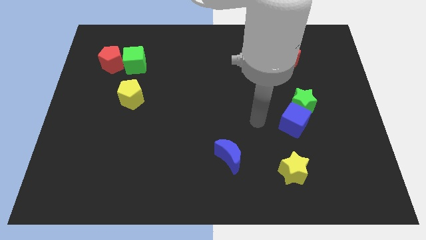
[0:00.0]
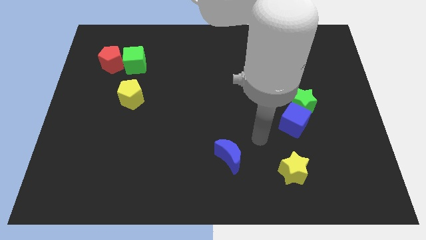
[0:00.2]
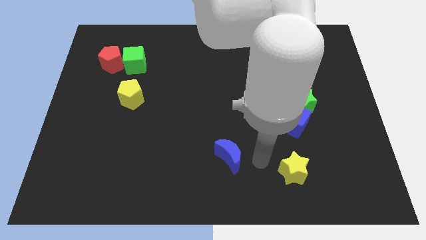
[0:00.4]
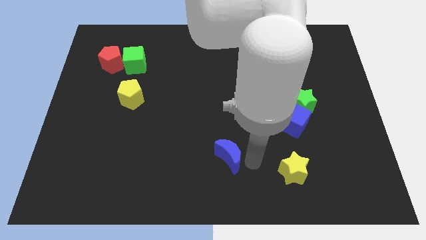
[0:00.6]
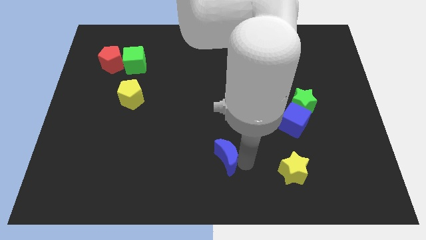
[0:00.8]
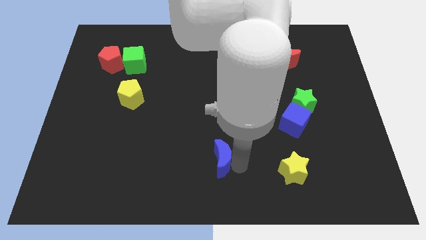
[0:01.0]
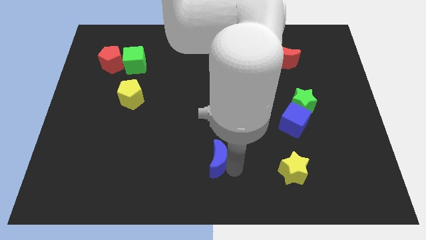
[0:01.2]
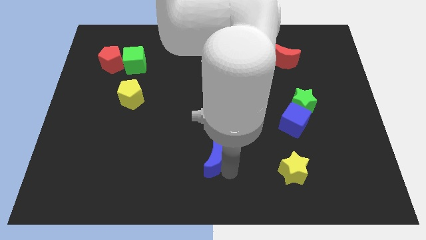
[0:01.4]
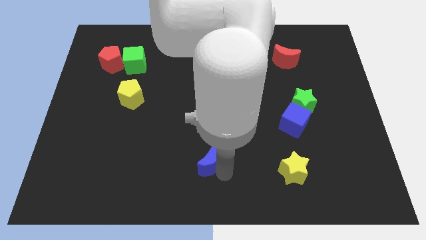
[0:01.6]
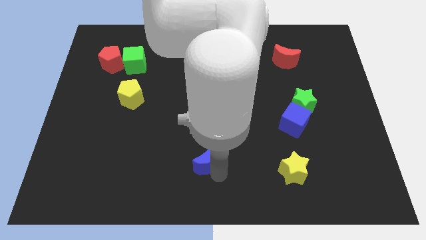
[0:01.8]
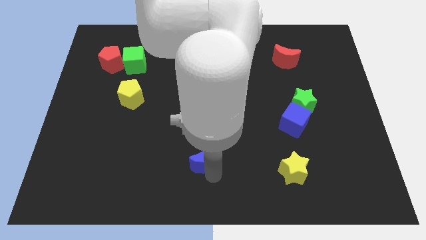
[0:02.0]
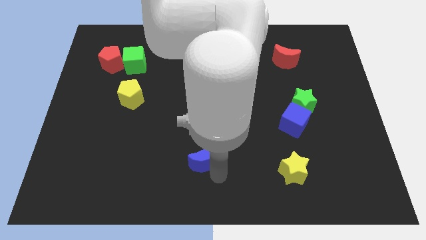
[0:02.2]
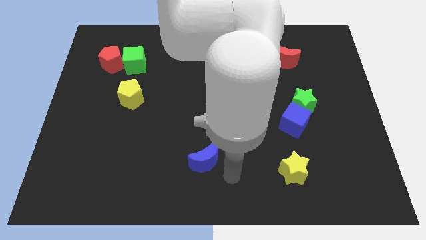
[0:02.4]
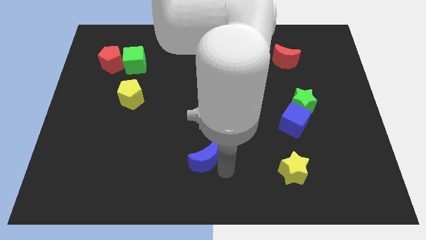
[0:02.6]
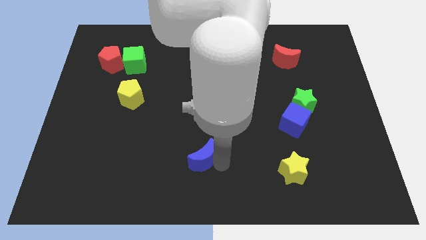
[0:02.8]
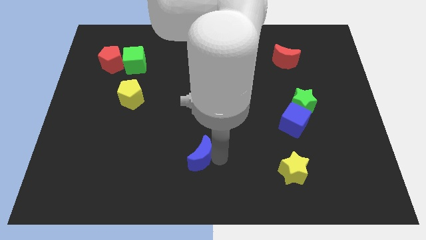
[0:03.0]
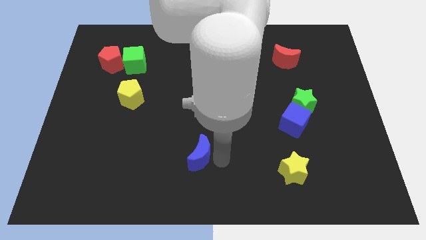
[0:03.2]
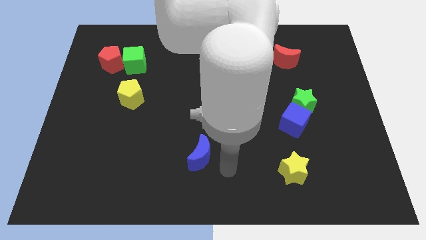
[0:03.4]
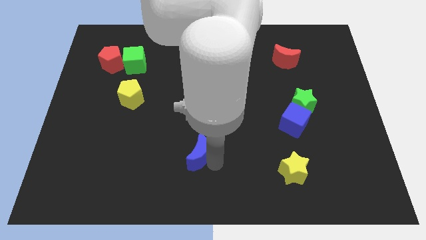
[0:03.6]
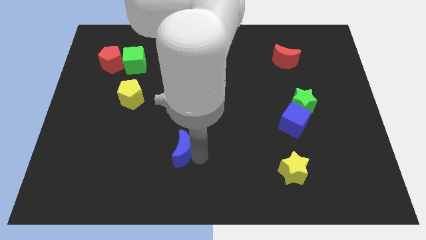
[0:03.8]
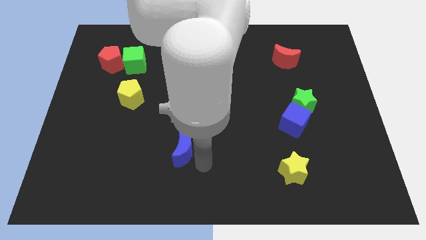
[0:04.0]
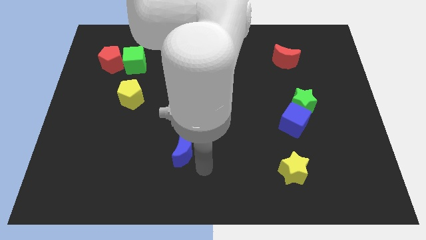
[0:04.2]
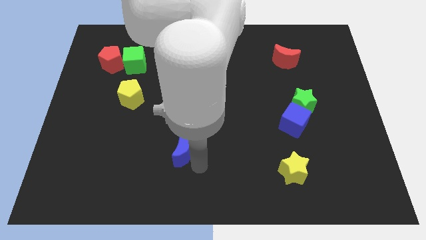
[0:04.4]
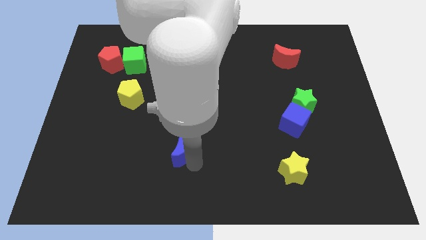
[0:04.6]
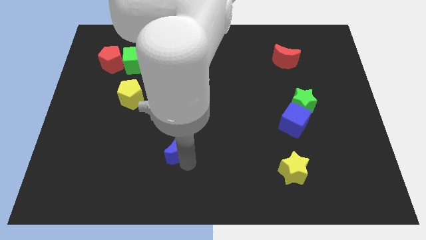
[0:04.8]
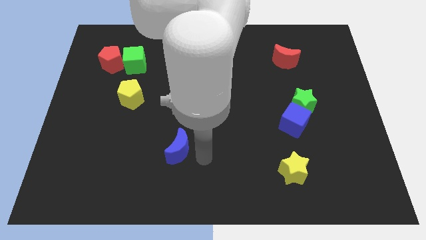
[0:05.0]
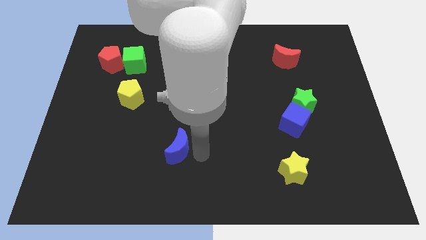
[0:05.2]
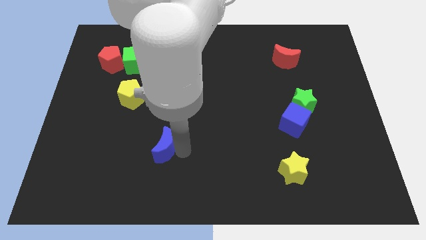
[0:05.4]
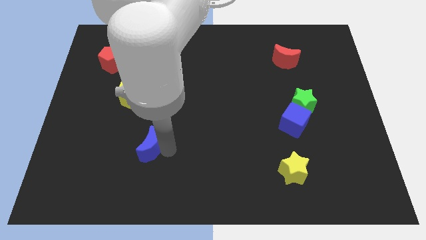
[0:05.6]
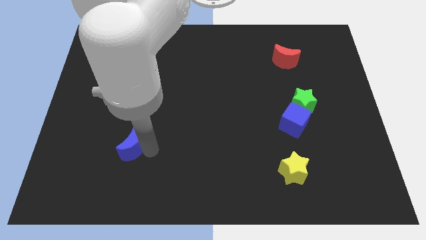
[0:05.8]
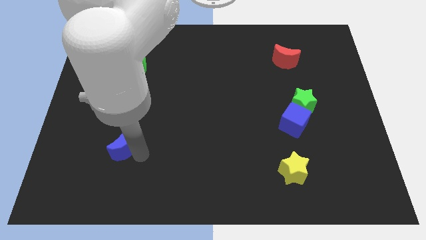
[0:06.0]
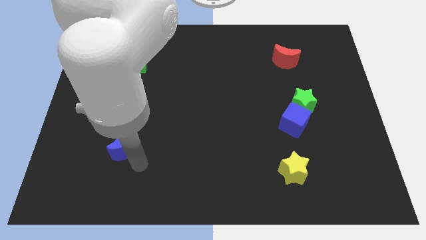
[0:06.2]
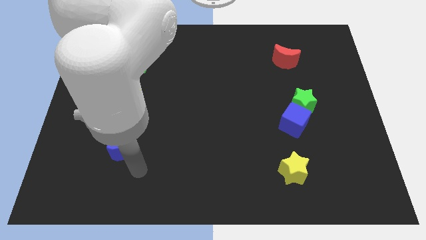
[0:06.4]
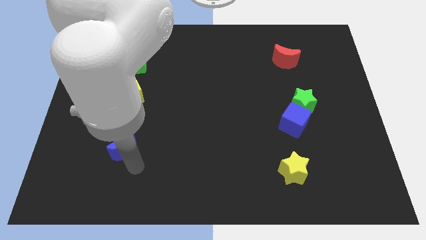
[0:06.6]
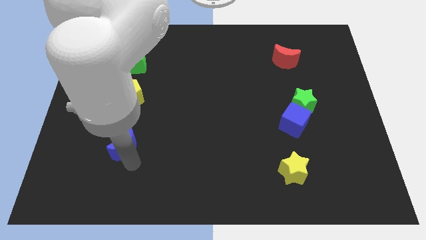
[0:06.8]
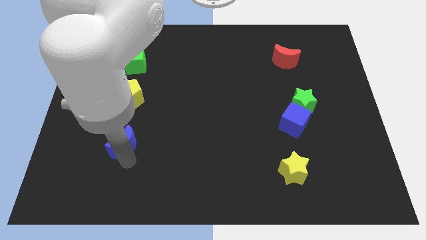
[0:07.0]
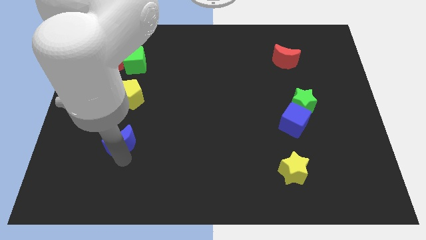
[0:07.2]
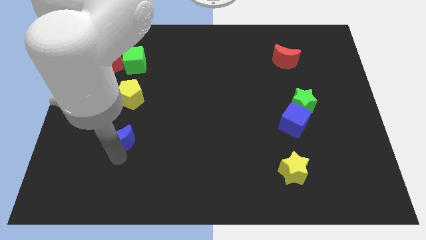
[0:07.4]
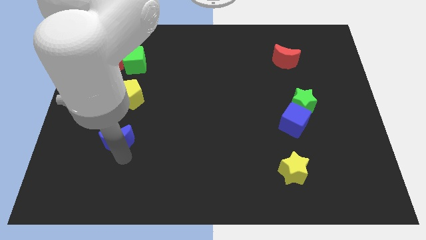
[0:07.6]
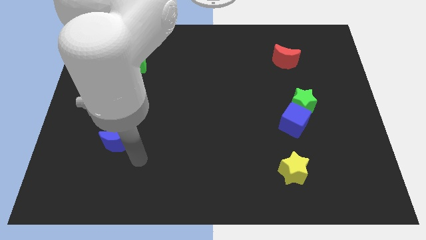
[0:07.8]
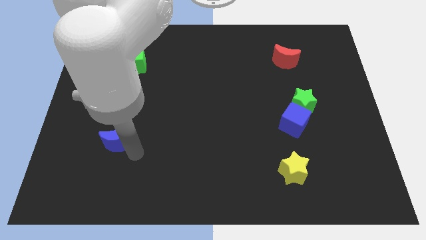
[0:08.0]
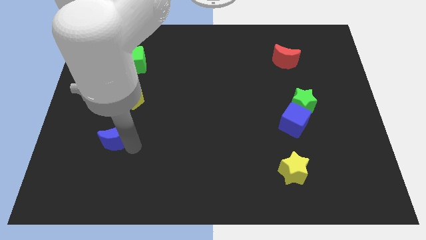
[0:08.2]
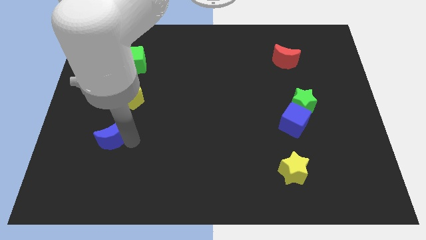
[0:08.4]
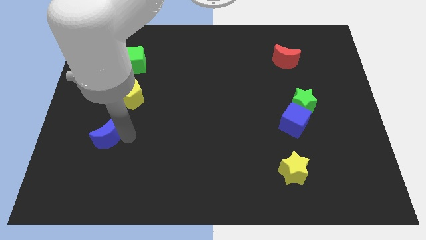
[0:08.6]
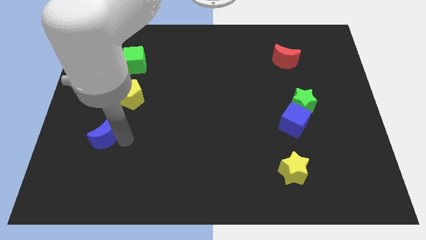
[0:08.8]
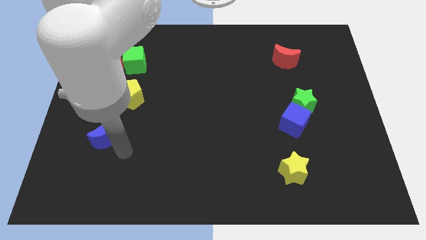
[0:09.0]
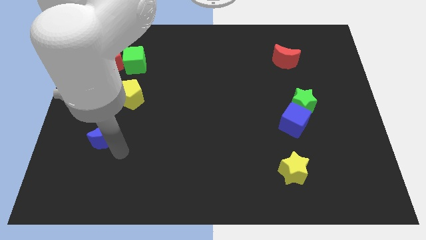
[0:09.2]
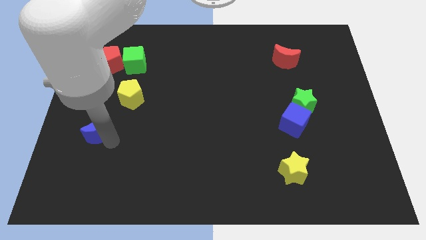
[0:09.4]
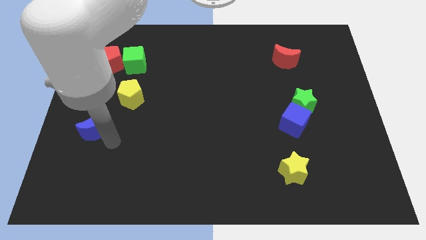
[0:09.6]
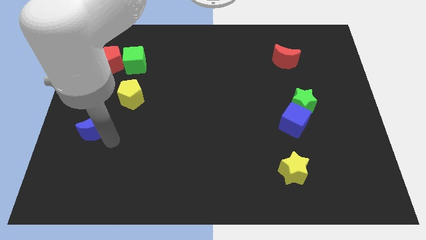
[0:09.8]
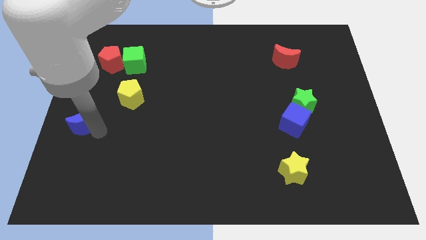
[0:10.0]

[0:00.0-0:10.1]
move the blue moon to the center left

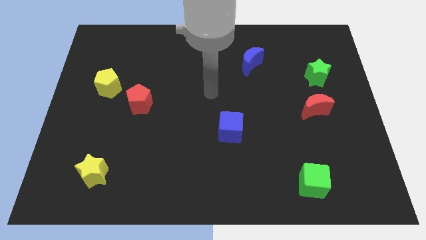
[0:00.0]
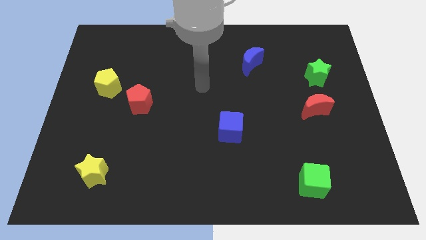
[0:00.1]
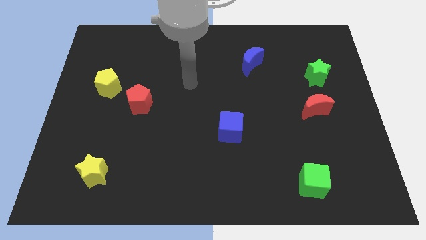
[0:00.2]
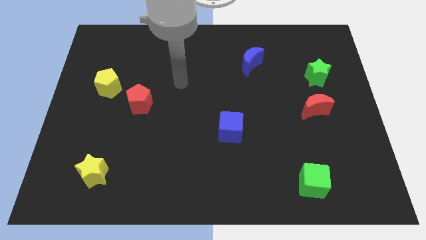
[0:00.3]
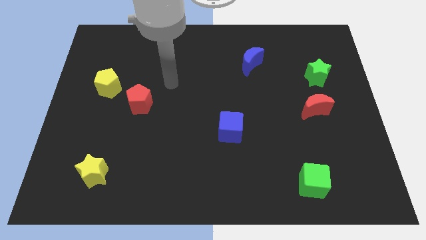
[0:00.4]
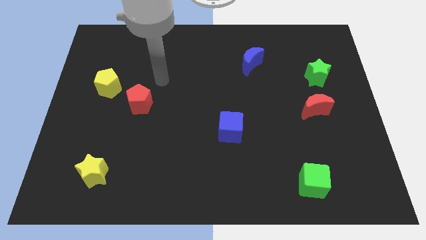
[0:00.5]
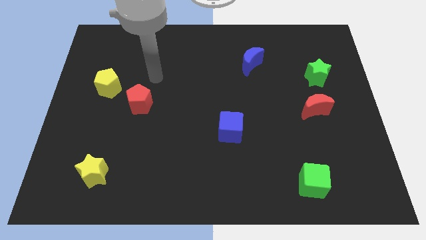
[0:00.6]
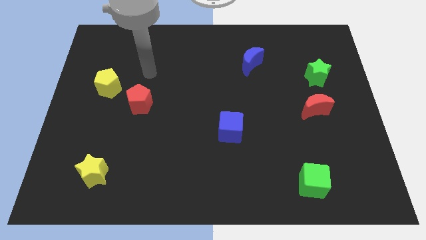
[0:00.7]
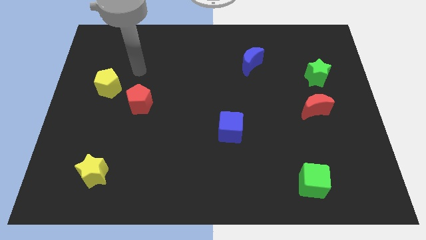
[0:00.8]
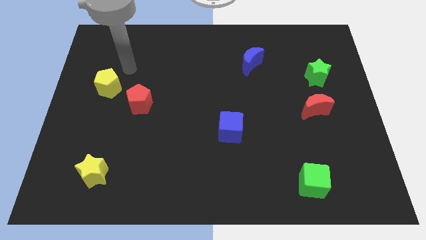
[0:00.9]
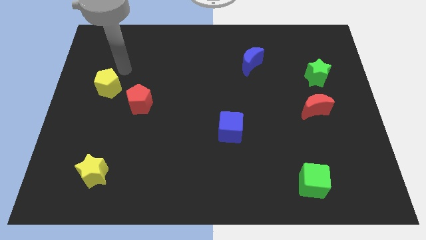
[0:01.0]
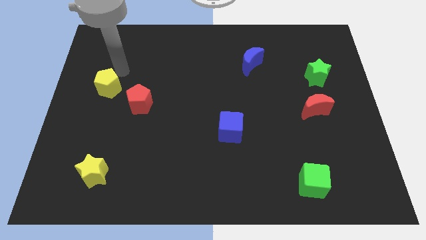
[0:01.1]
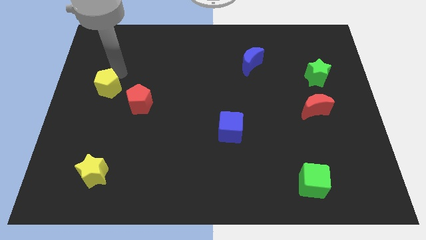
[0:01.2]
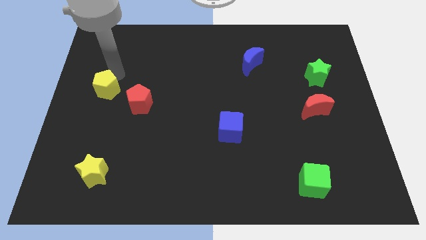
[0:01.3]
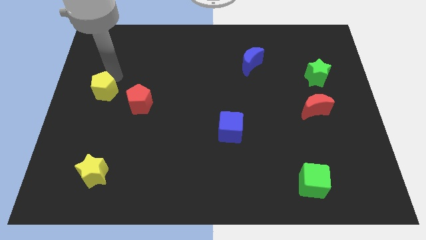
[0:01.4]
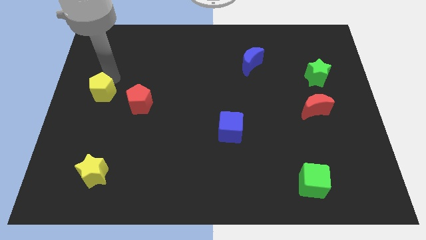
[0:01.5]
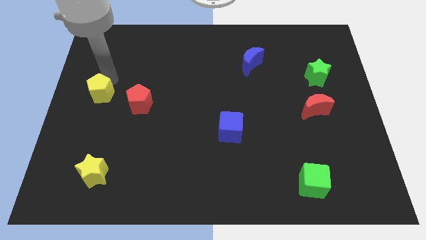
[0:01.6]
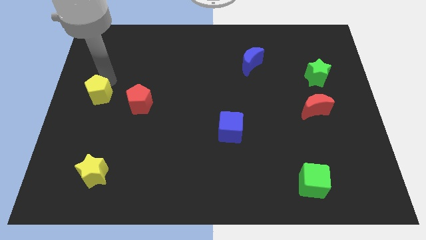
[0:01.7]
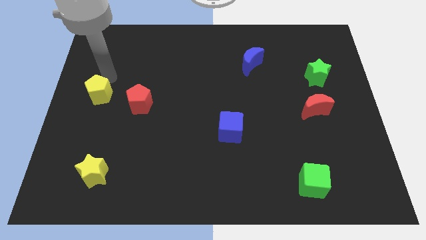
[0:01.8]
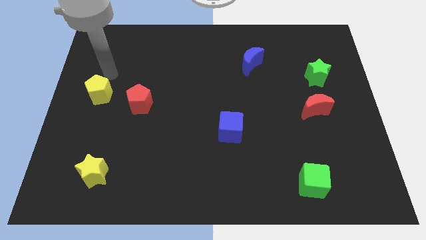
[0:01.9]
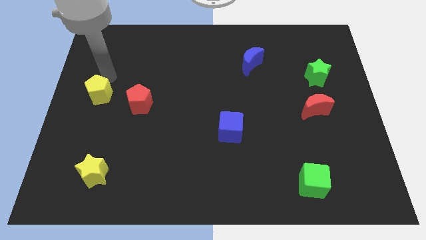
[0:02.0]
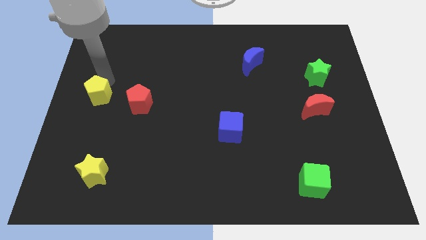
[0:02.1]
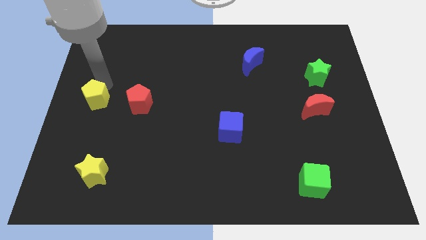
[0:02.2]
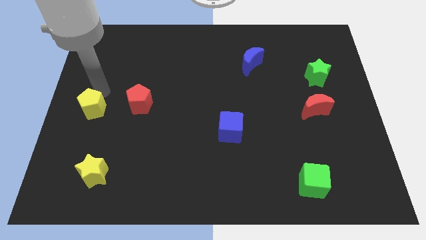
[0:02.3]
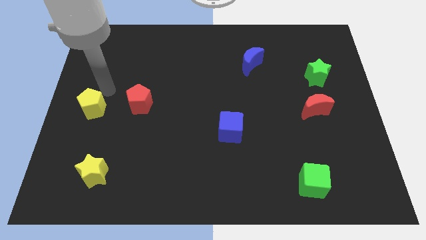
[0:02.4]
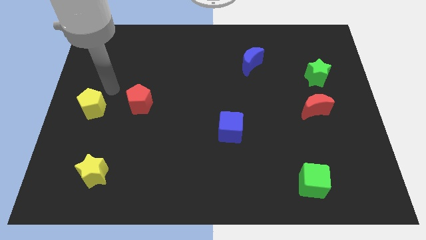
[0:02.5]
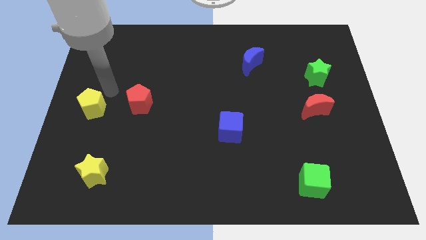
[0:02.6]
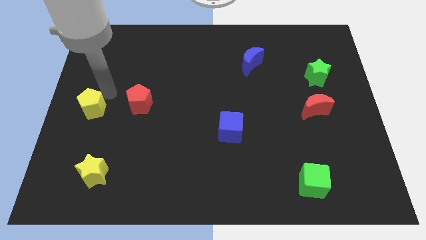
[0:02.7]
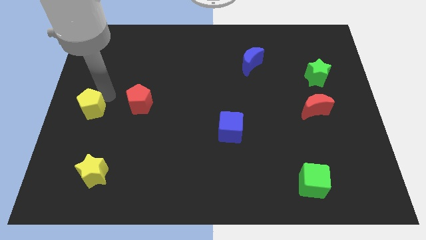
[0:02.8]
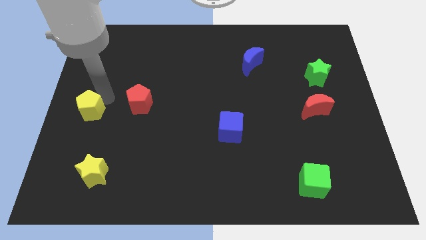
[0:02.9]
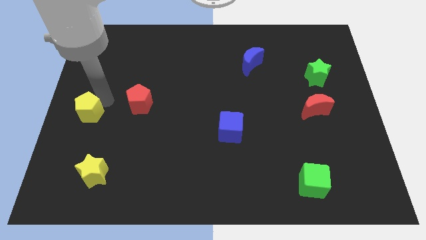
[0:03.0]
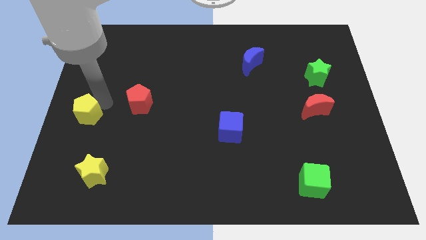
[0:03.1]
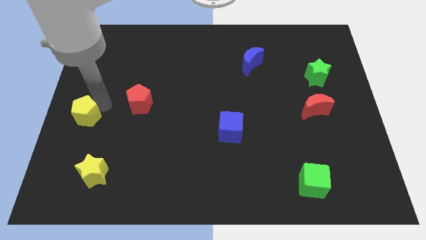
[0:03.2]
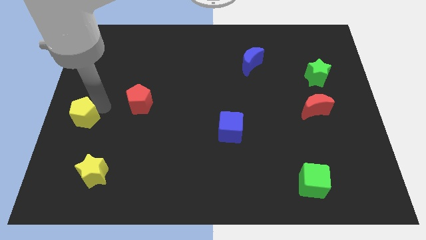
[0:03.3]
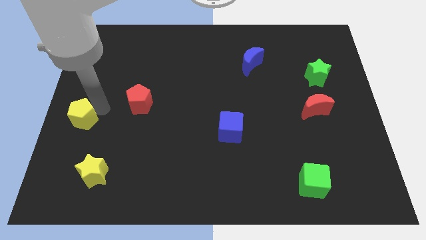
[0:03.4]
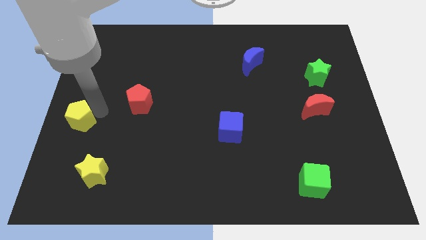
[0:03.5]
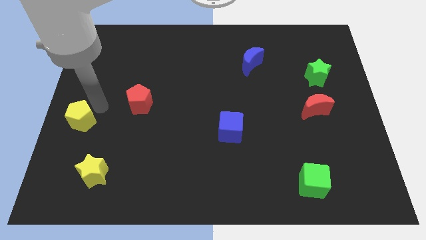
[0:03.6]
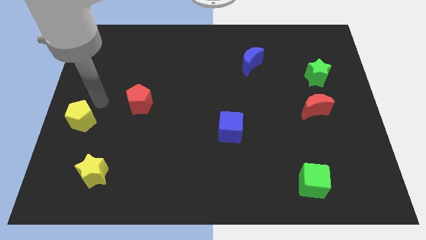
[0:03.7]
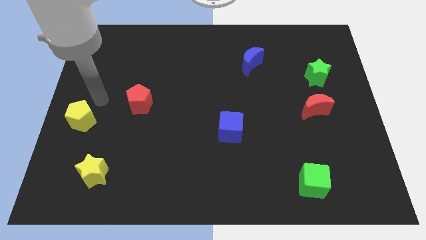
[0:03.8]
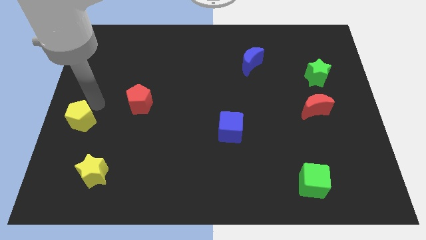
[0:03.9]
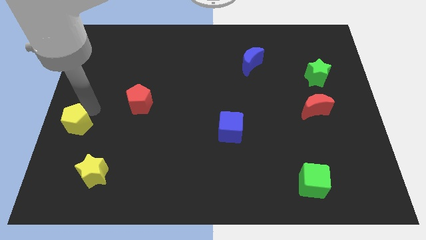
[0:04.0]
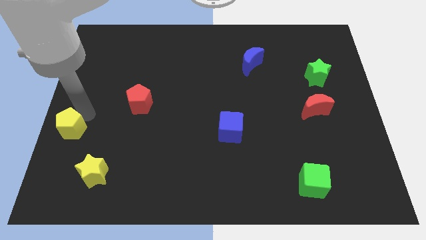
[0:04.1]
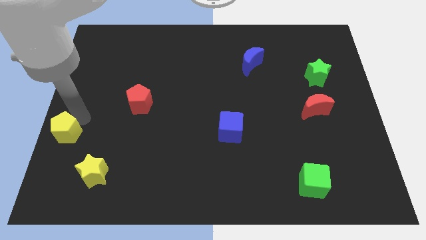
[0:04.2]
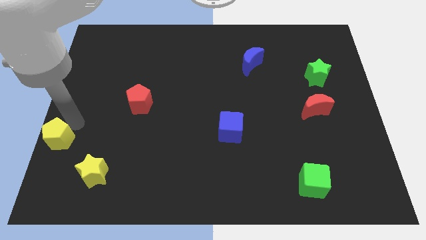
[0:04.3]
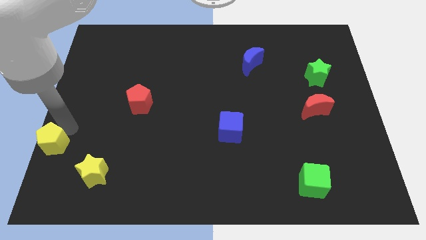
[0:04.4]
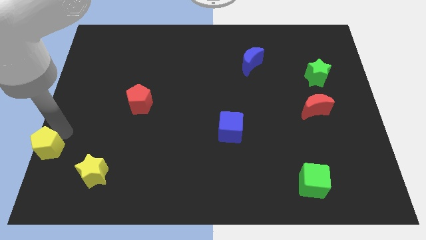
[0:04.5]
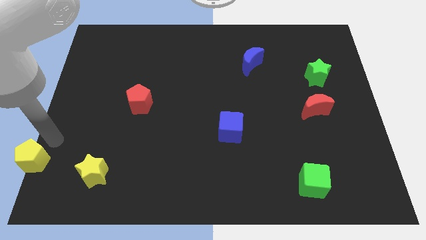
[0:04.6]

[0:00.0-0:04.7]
put the yellow pentagon to the bottom left
